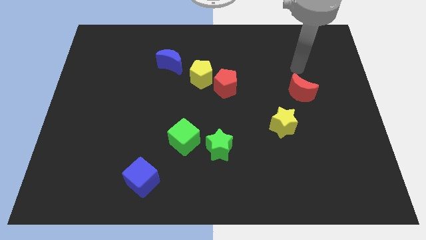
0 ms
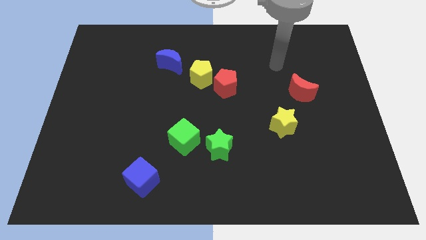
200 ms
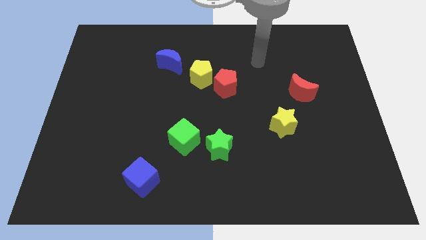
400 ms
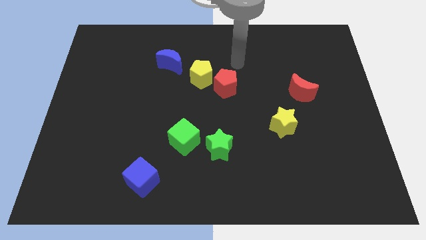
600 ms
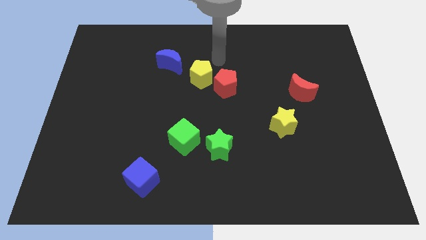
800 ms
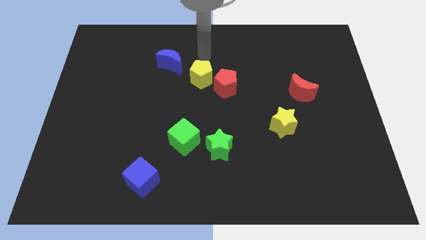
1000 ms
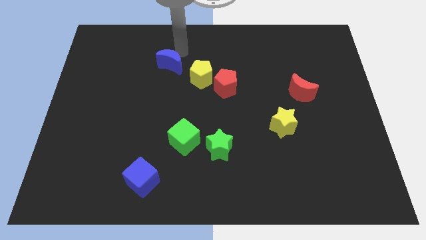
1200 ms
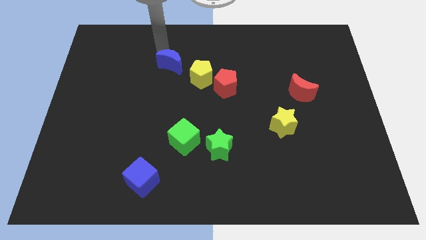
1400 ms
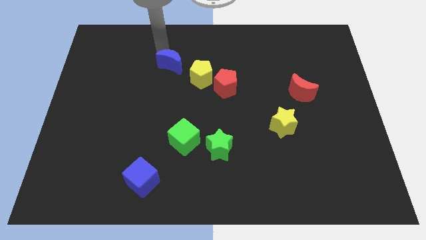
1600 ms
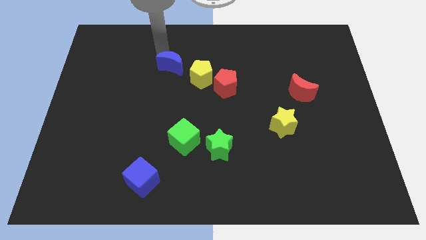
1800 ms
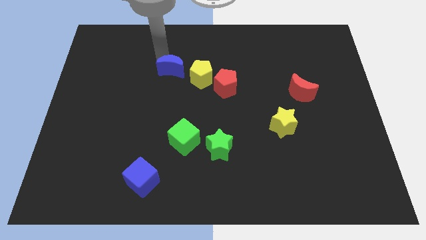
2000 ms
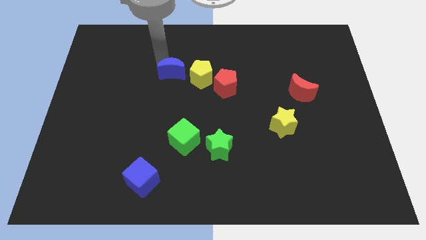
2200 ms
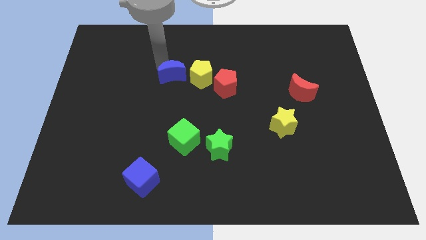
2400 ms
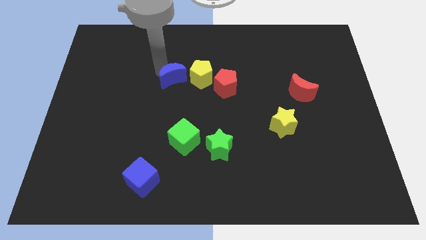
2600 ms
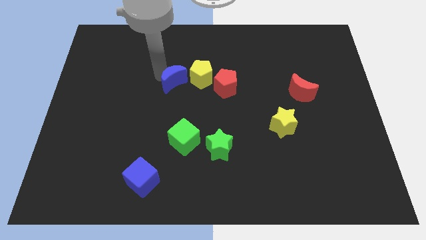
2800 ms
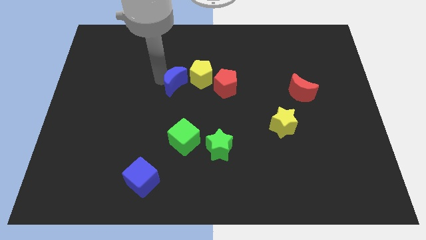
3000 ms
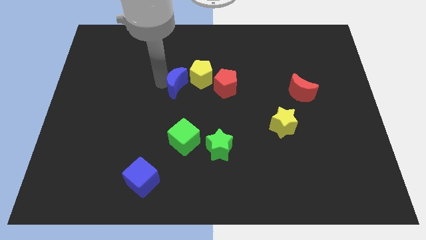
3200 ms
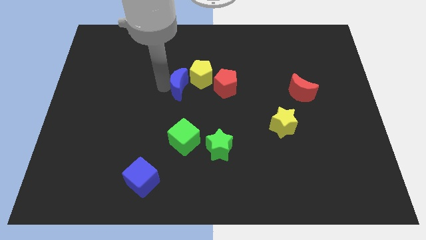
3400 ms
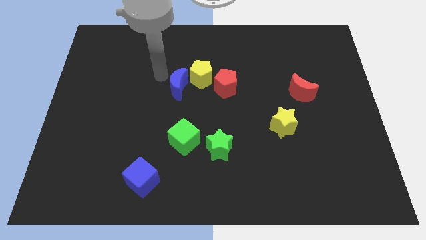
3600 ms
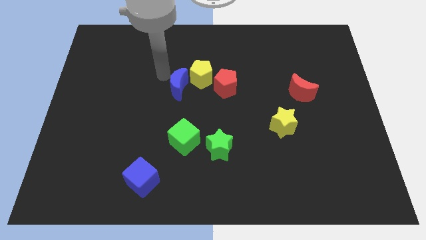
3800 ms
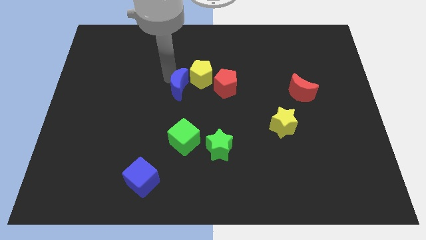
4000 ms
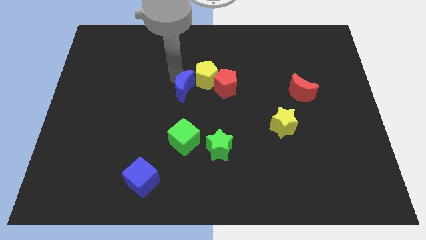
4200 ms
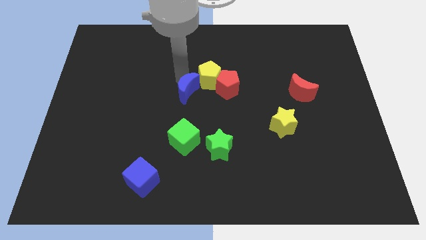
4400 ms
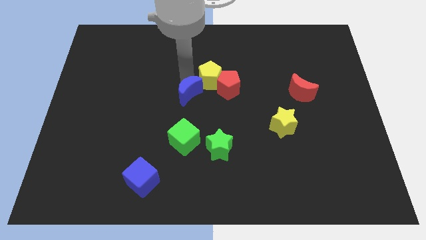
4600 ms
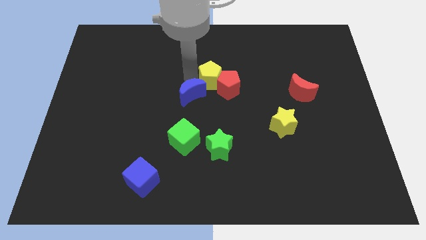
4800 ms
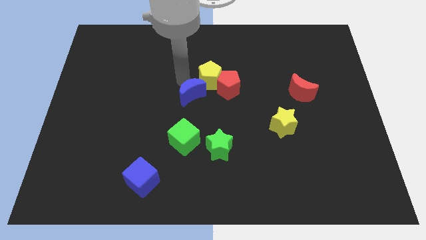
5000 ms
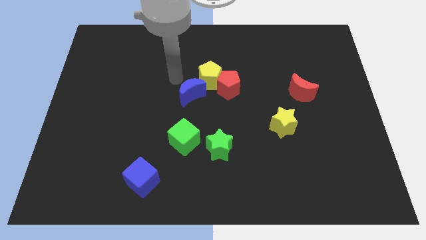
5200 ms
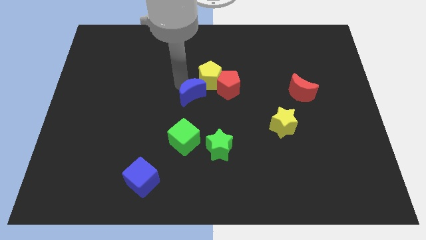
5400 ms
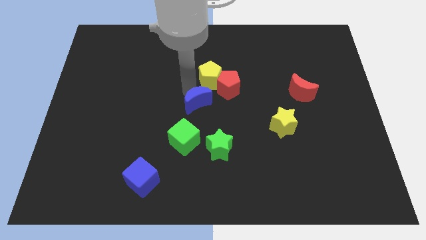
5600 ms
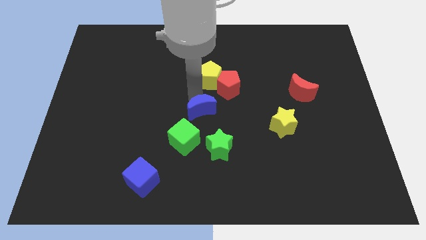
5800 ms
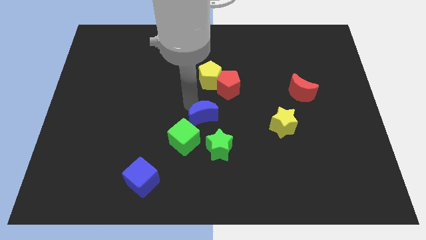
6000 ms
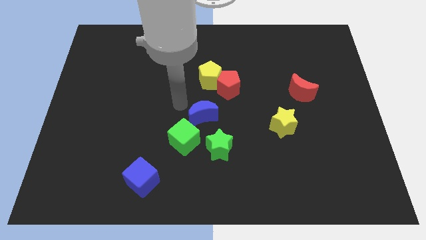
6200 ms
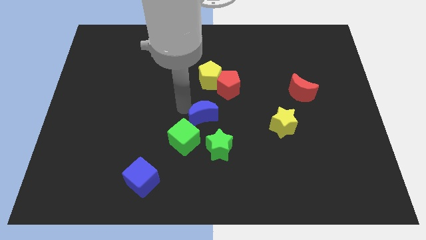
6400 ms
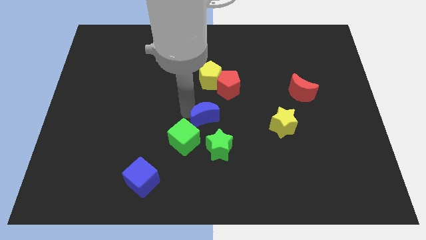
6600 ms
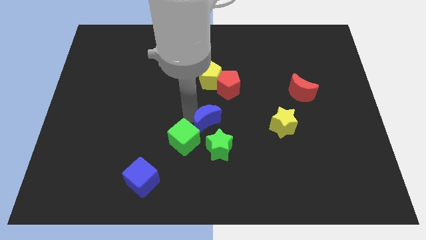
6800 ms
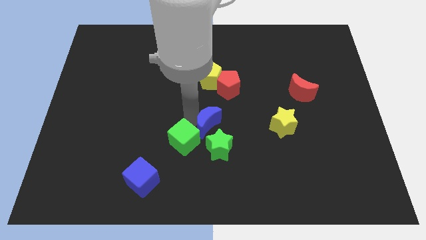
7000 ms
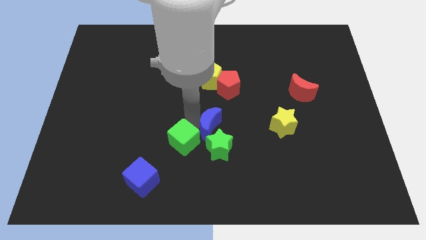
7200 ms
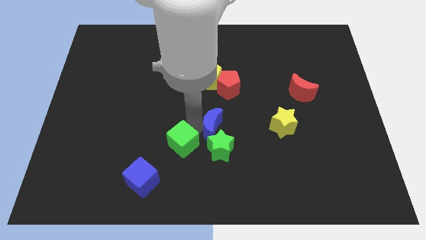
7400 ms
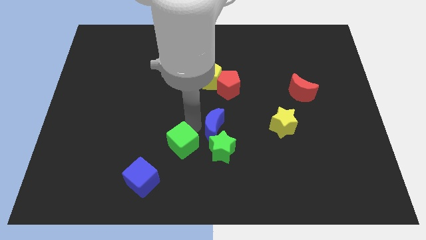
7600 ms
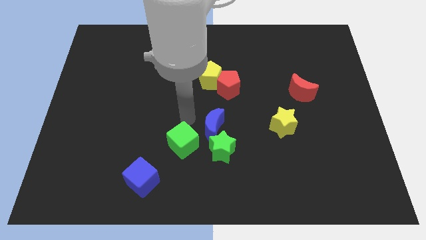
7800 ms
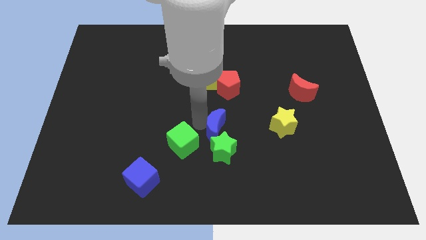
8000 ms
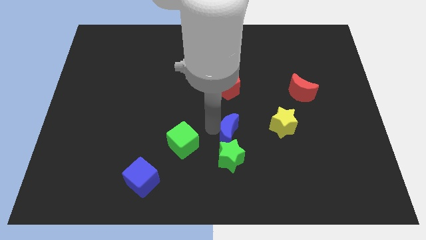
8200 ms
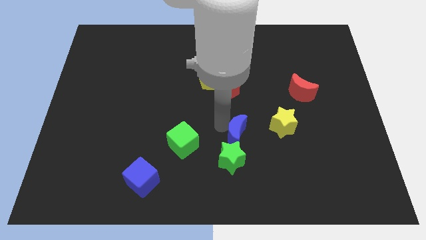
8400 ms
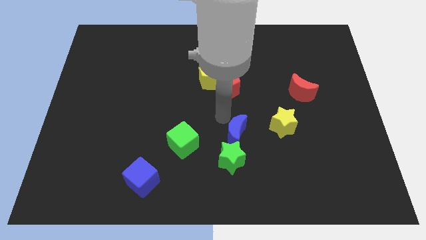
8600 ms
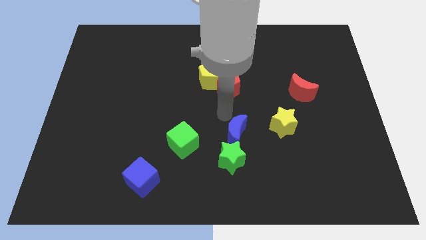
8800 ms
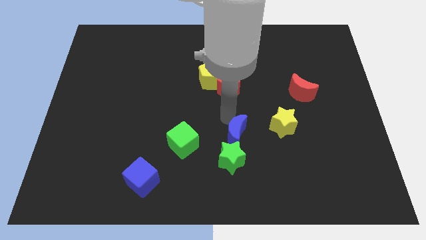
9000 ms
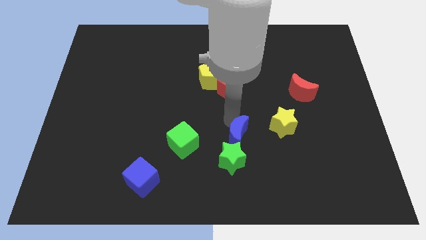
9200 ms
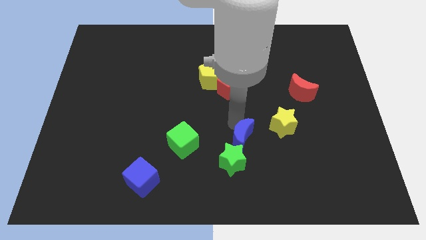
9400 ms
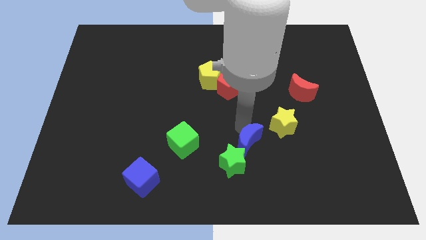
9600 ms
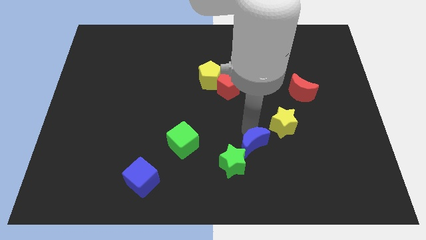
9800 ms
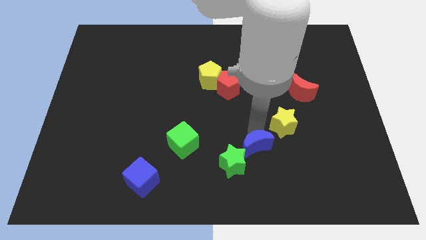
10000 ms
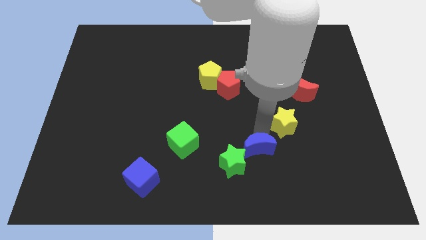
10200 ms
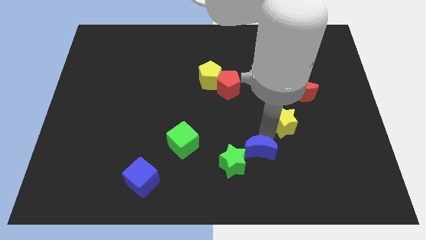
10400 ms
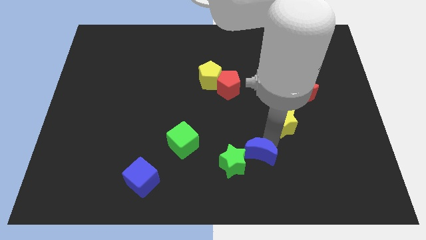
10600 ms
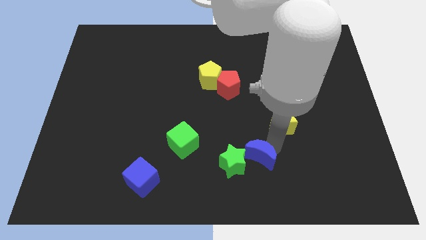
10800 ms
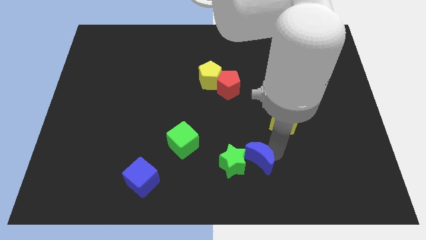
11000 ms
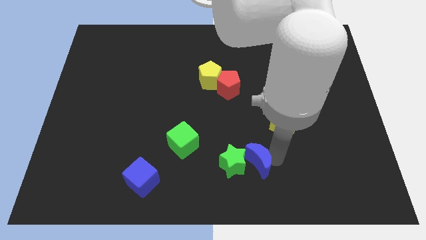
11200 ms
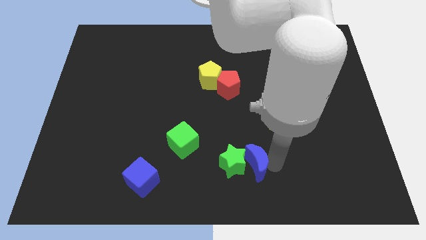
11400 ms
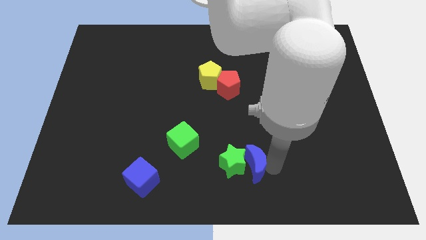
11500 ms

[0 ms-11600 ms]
slide the blue moon to the bottom
